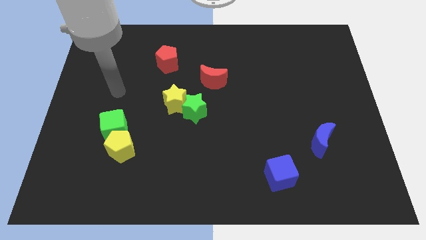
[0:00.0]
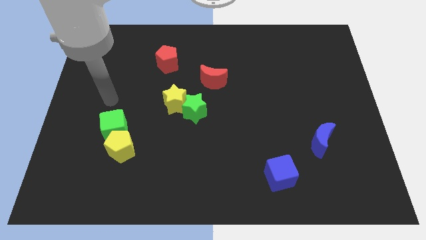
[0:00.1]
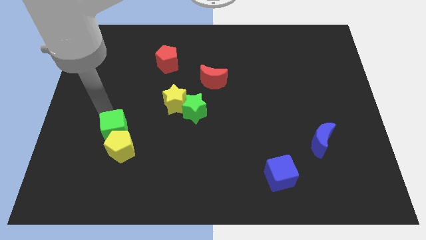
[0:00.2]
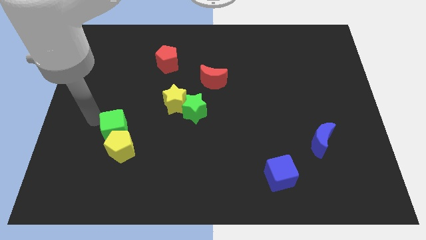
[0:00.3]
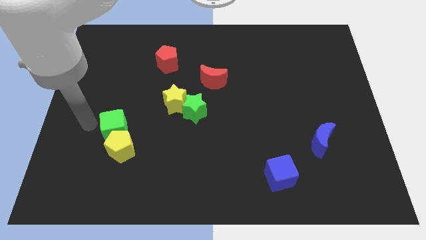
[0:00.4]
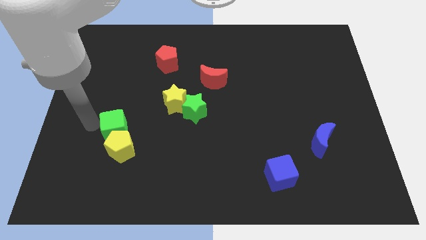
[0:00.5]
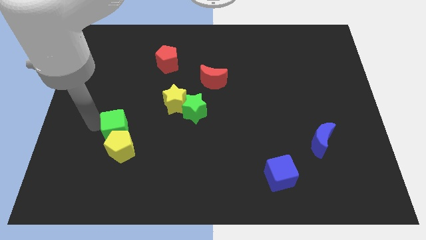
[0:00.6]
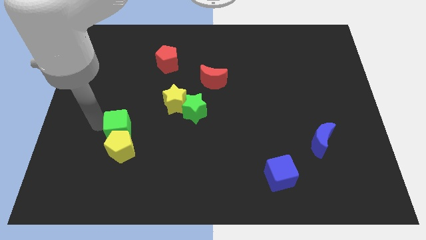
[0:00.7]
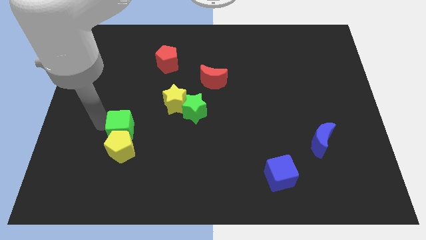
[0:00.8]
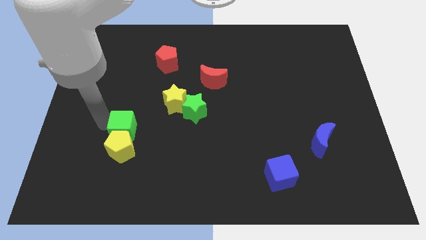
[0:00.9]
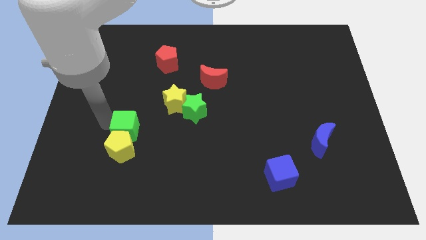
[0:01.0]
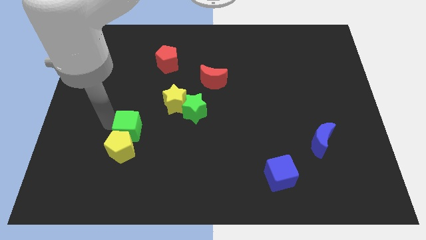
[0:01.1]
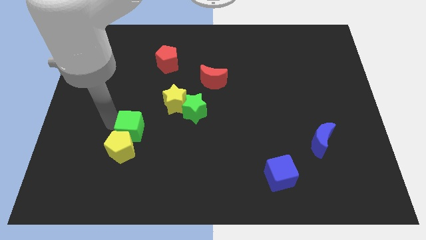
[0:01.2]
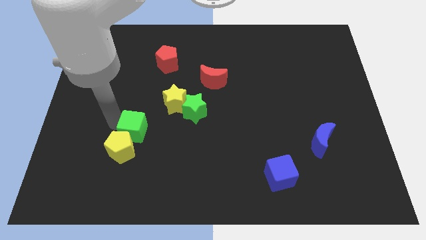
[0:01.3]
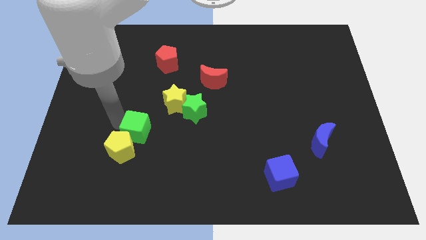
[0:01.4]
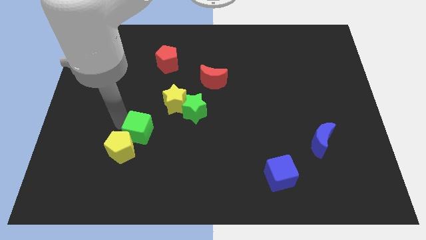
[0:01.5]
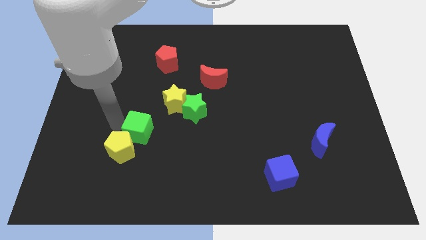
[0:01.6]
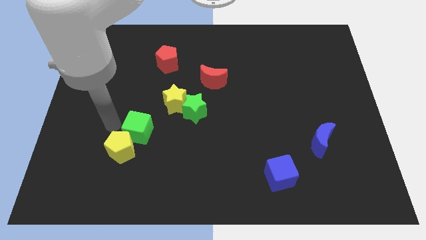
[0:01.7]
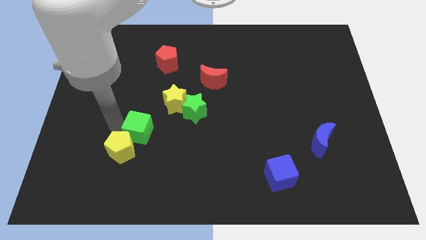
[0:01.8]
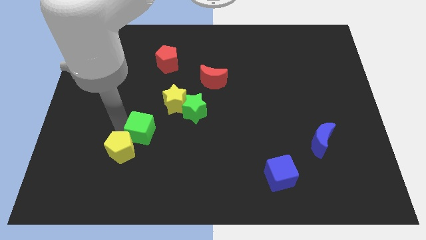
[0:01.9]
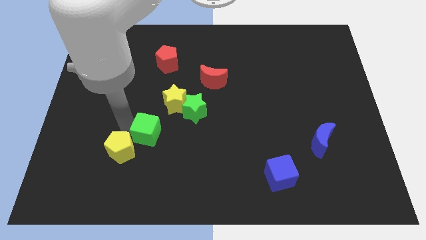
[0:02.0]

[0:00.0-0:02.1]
slide the green cube slightly right

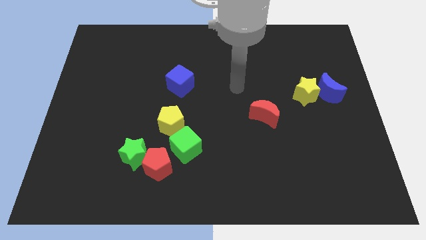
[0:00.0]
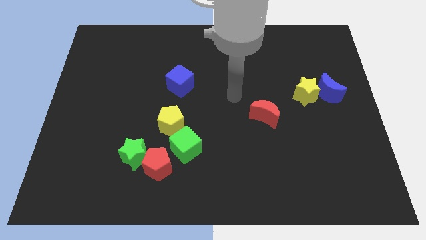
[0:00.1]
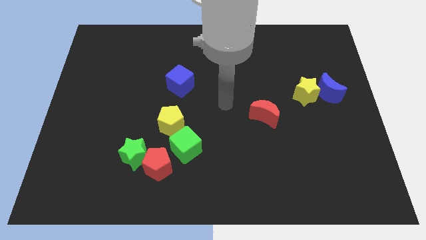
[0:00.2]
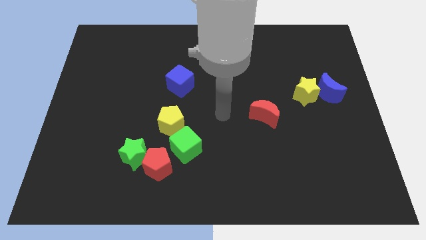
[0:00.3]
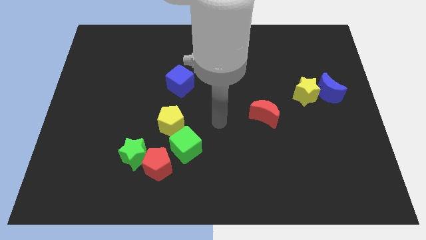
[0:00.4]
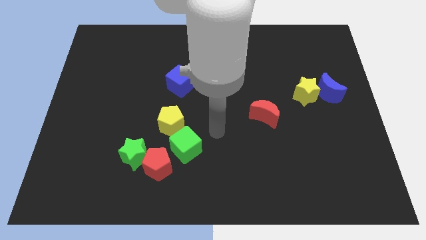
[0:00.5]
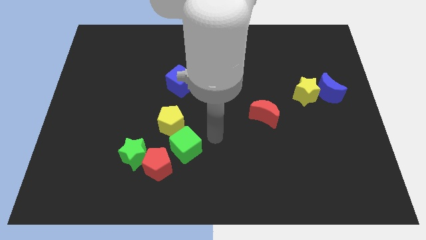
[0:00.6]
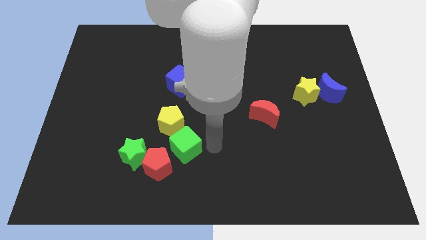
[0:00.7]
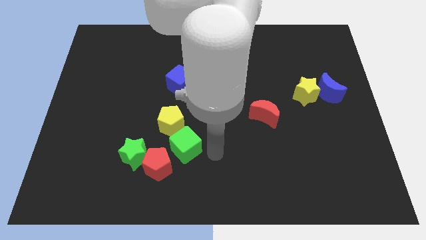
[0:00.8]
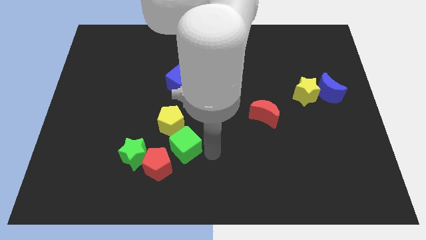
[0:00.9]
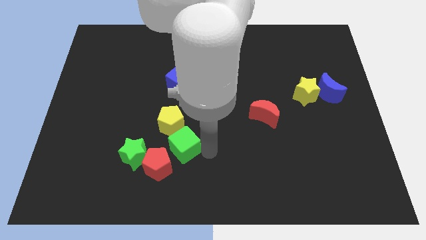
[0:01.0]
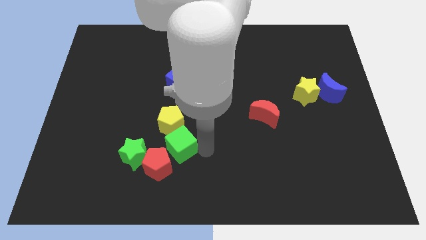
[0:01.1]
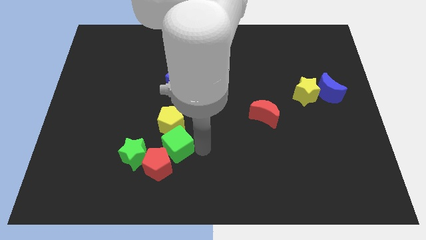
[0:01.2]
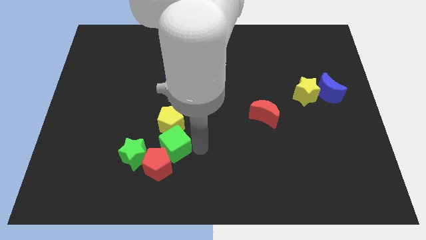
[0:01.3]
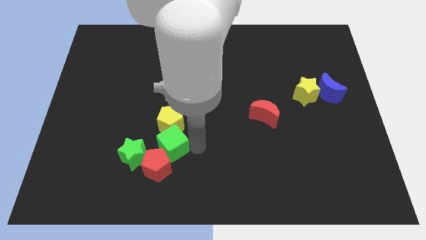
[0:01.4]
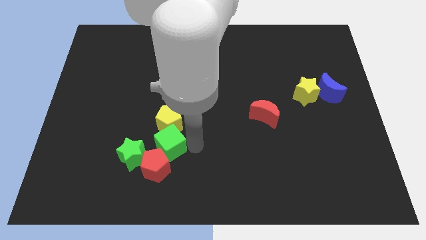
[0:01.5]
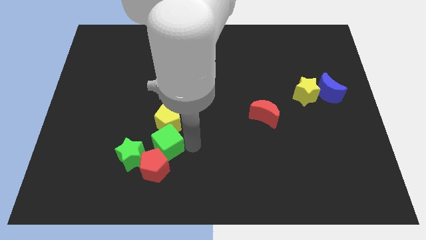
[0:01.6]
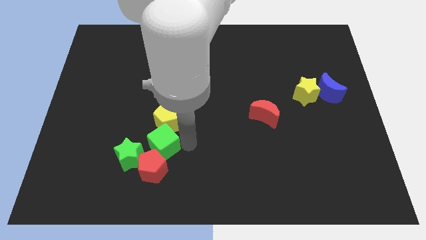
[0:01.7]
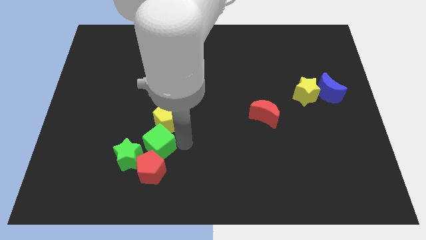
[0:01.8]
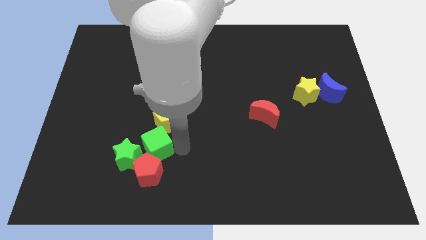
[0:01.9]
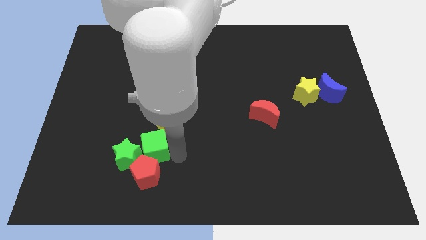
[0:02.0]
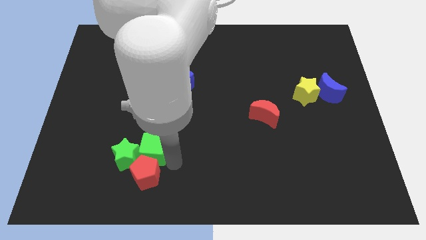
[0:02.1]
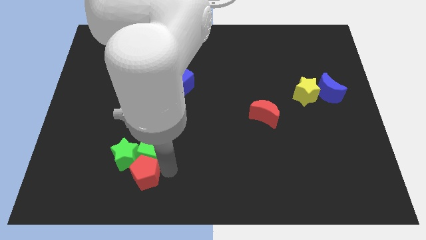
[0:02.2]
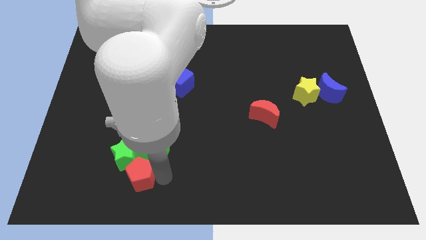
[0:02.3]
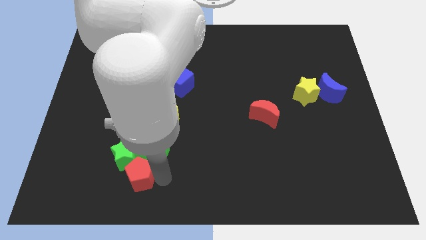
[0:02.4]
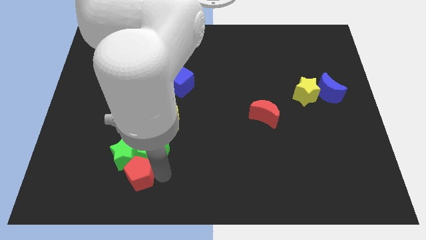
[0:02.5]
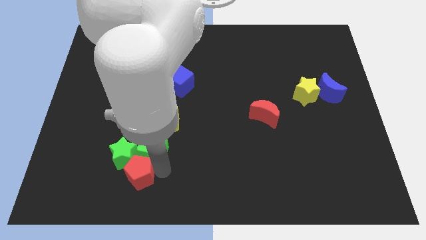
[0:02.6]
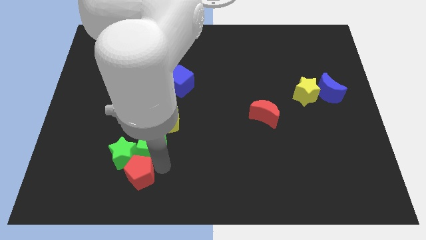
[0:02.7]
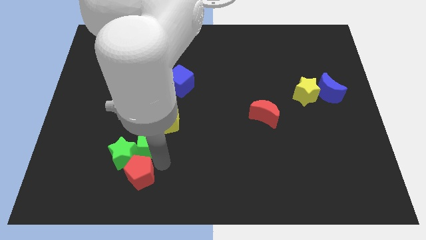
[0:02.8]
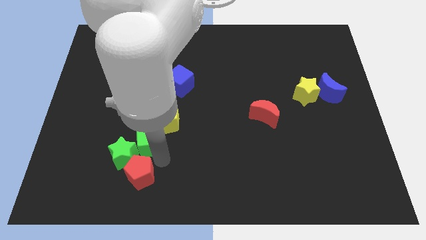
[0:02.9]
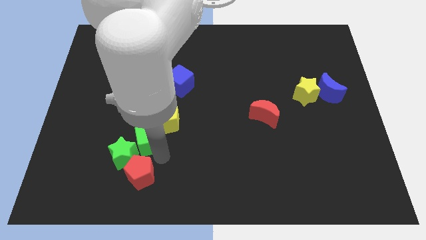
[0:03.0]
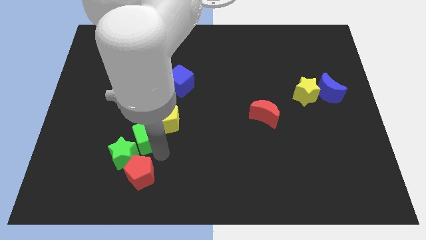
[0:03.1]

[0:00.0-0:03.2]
slide the green cube a little bit up and to the left

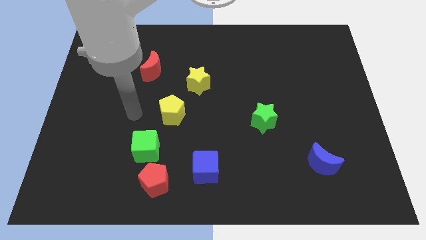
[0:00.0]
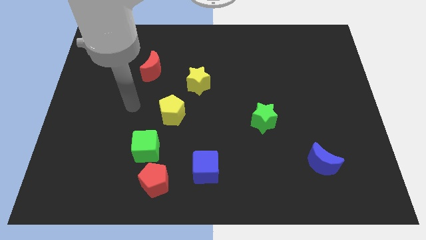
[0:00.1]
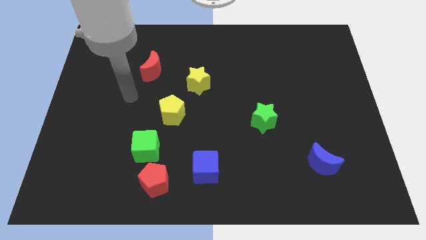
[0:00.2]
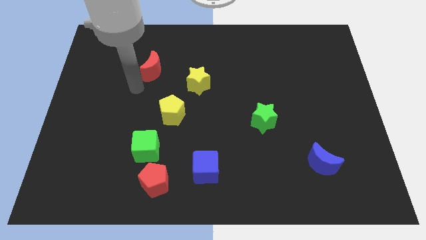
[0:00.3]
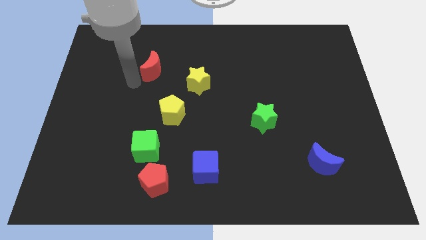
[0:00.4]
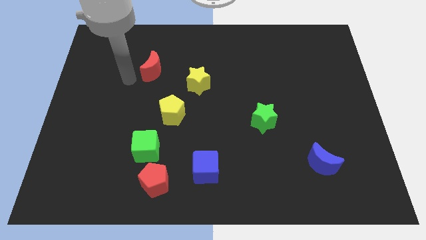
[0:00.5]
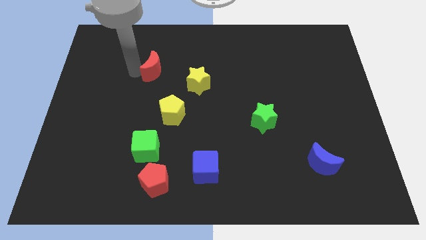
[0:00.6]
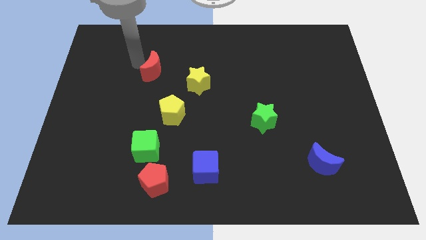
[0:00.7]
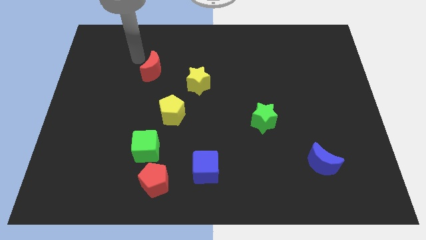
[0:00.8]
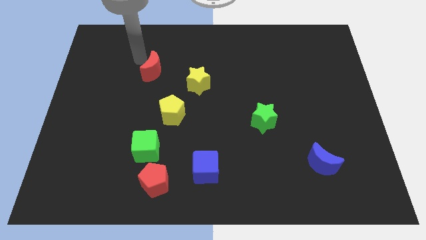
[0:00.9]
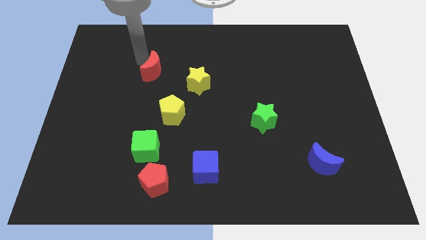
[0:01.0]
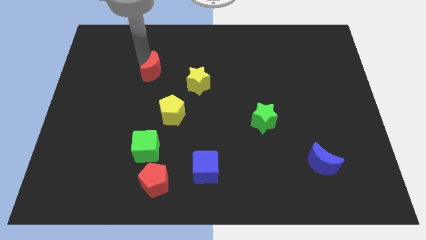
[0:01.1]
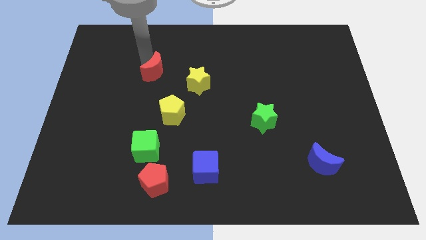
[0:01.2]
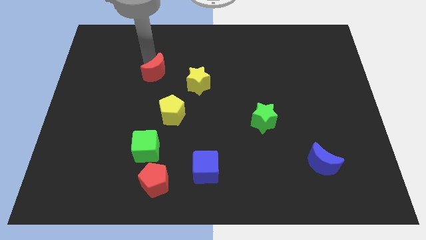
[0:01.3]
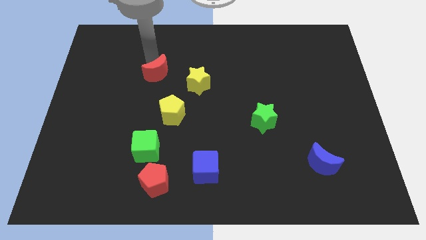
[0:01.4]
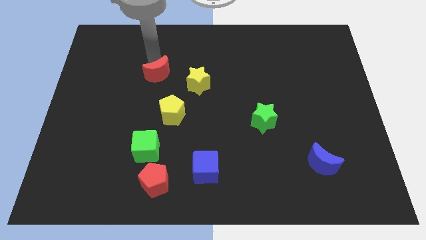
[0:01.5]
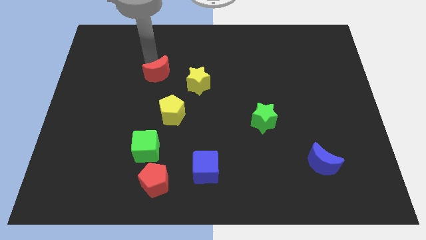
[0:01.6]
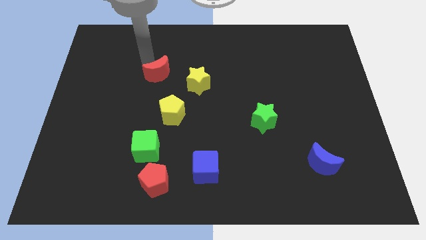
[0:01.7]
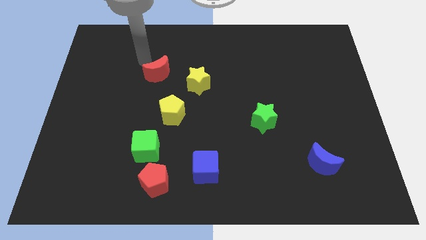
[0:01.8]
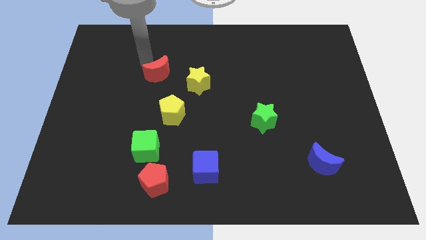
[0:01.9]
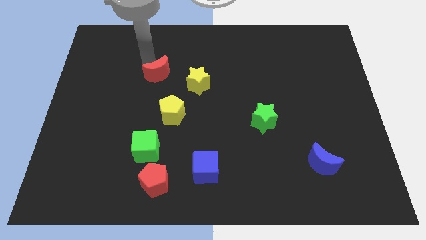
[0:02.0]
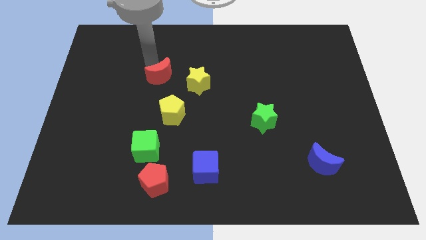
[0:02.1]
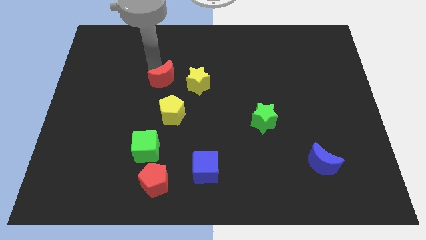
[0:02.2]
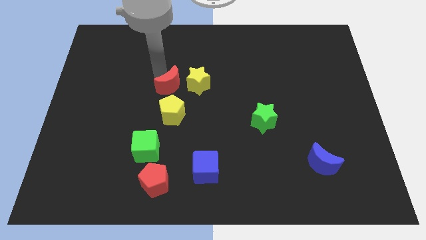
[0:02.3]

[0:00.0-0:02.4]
move the red moon diagonally down and to the right a bit

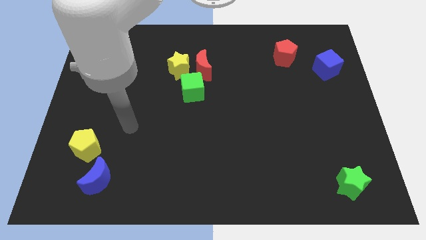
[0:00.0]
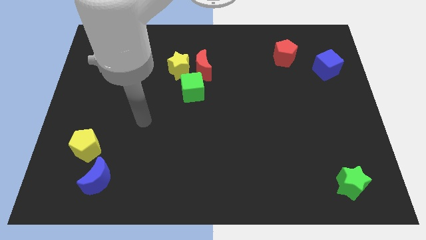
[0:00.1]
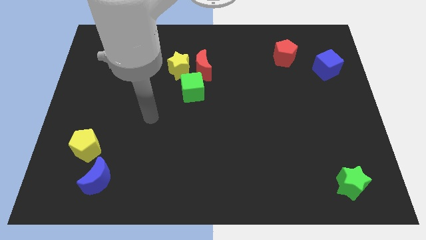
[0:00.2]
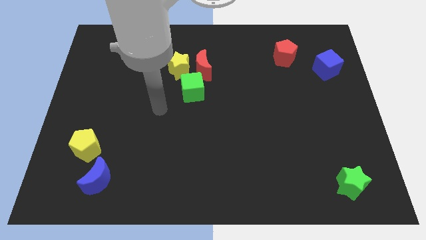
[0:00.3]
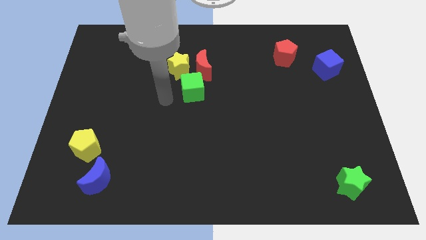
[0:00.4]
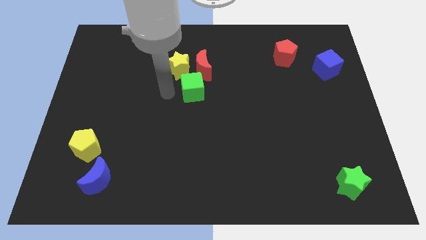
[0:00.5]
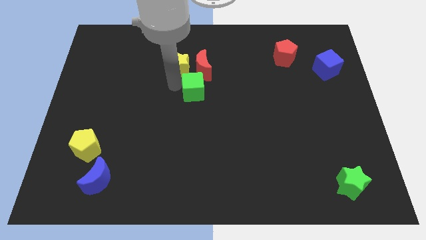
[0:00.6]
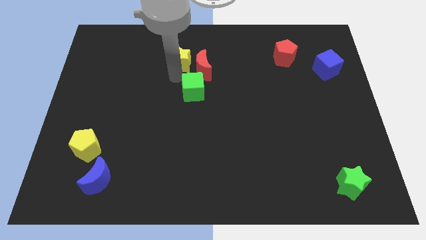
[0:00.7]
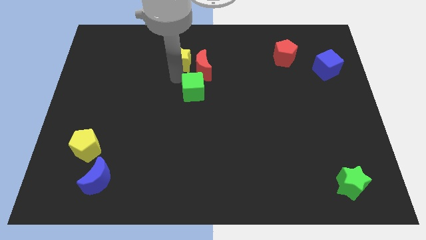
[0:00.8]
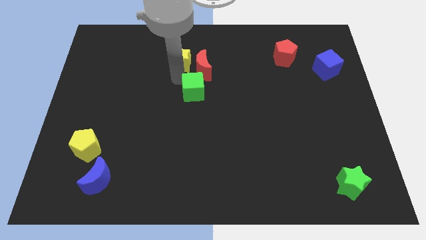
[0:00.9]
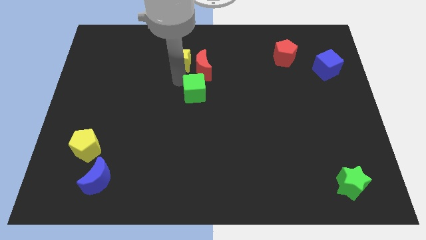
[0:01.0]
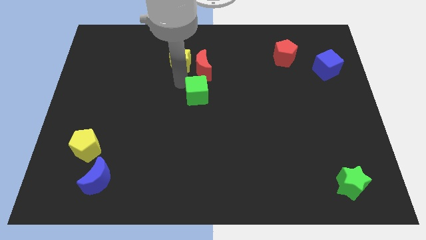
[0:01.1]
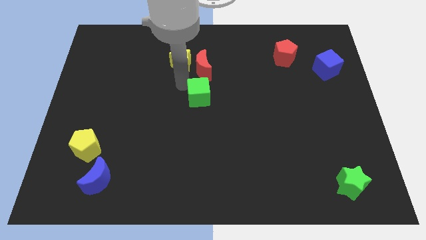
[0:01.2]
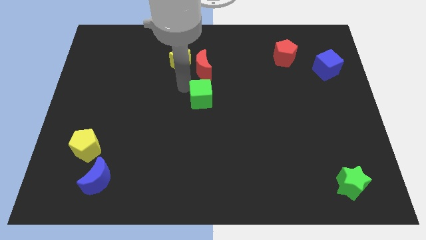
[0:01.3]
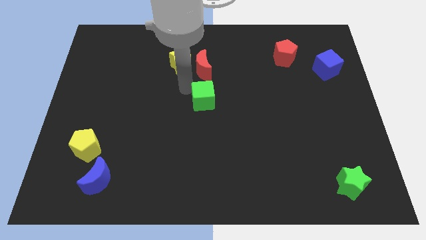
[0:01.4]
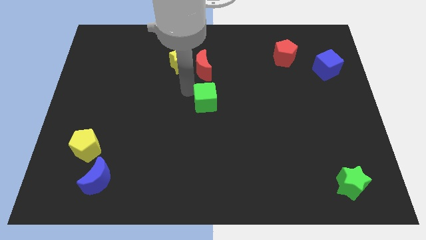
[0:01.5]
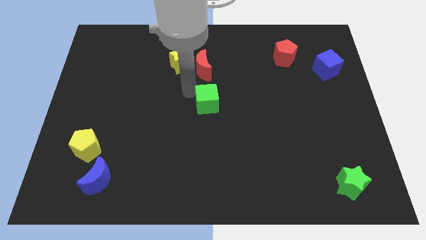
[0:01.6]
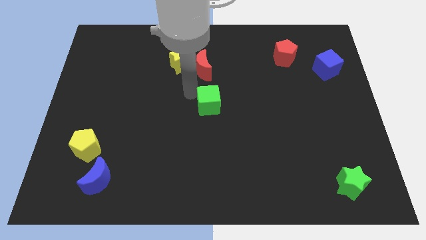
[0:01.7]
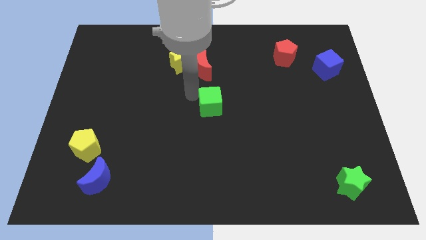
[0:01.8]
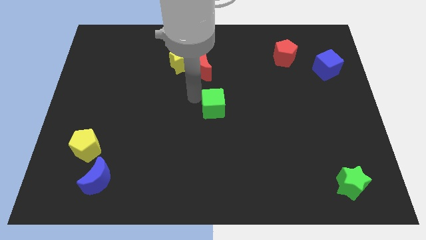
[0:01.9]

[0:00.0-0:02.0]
slide the green cube downwards and then right a bit
